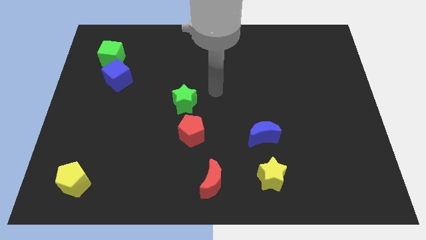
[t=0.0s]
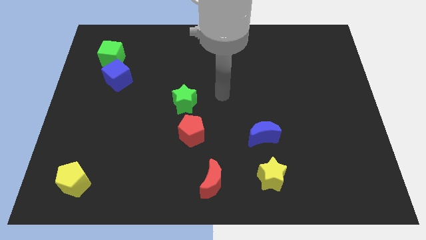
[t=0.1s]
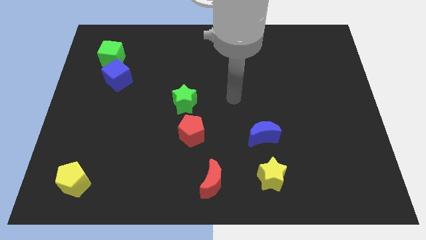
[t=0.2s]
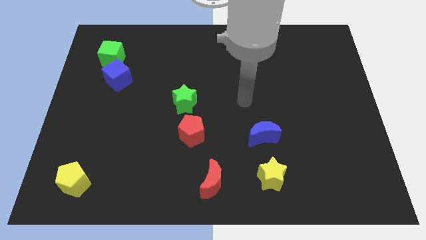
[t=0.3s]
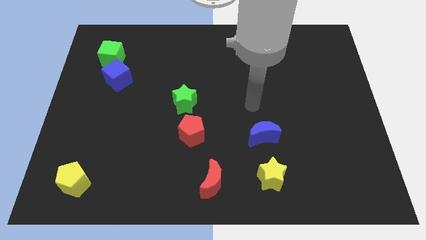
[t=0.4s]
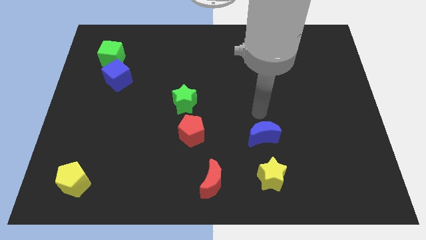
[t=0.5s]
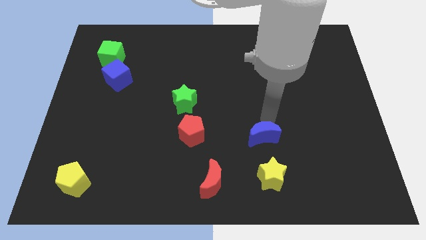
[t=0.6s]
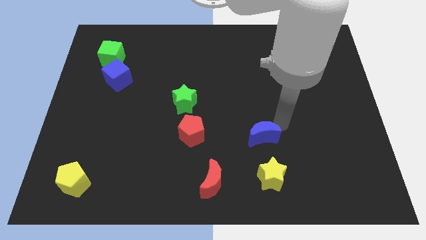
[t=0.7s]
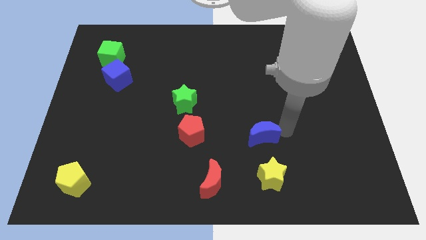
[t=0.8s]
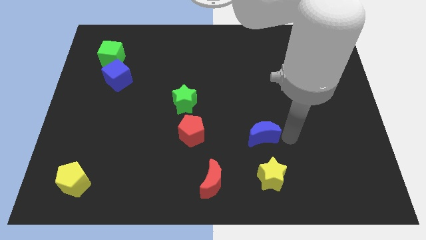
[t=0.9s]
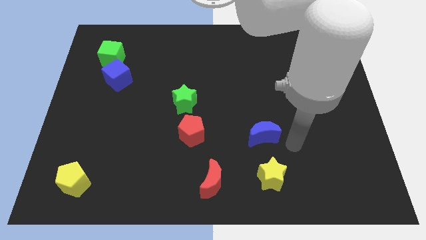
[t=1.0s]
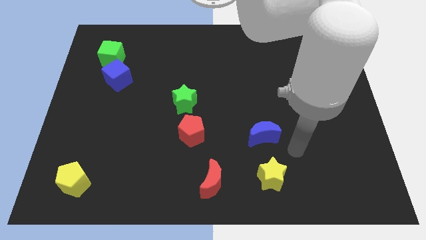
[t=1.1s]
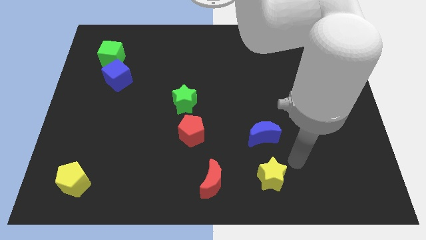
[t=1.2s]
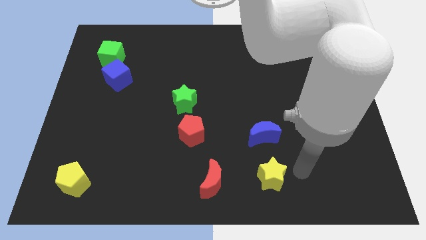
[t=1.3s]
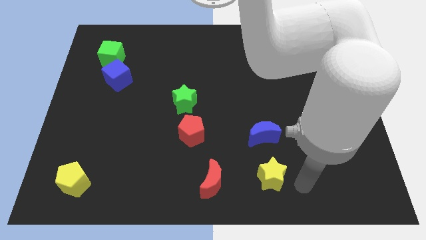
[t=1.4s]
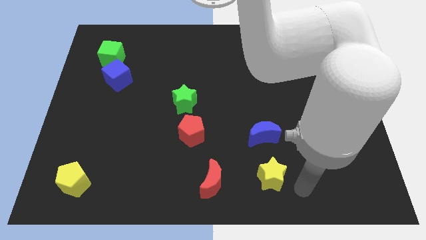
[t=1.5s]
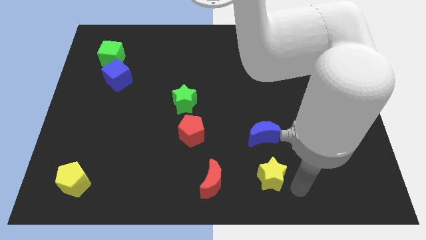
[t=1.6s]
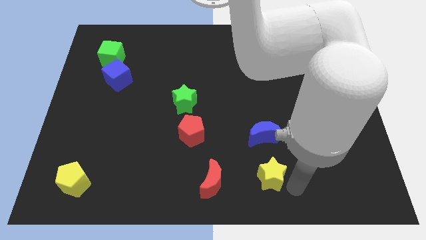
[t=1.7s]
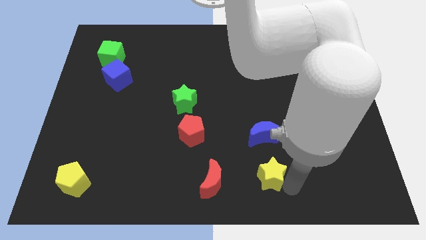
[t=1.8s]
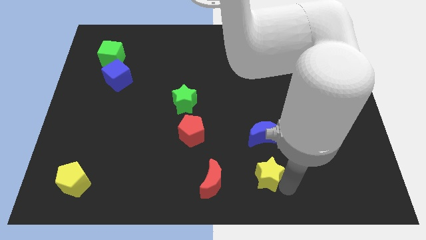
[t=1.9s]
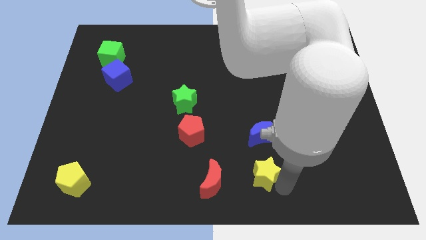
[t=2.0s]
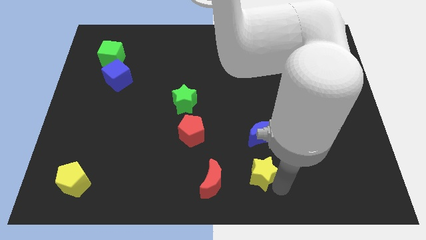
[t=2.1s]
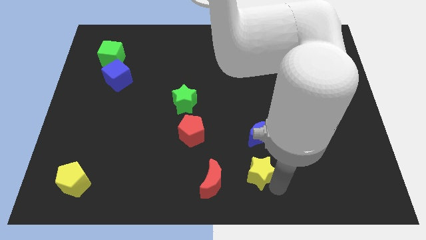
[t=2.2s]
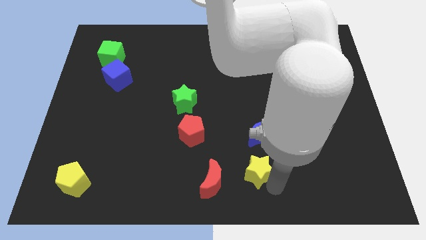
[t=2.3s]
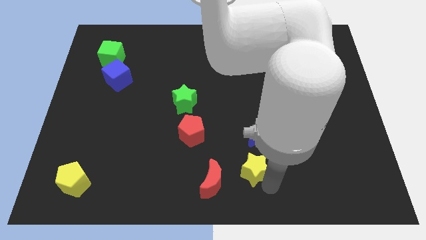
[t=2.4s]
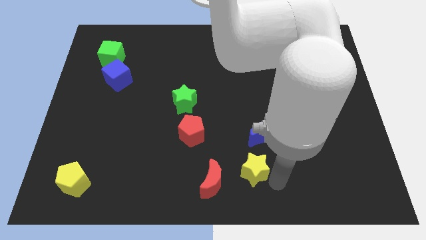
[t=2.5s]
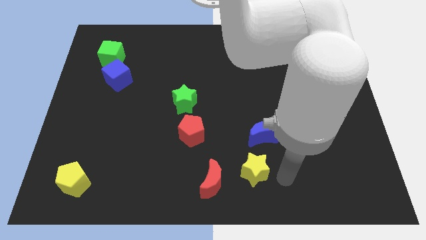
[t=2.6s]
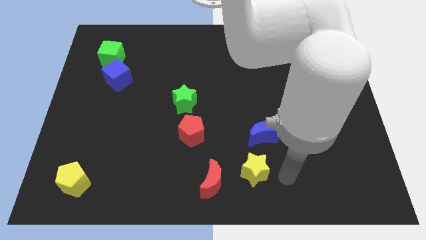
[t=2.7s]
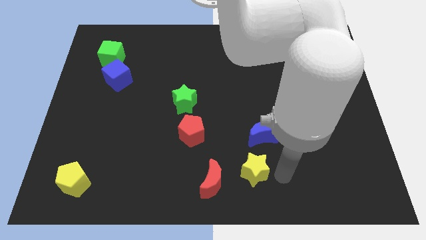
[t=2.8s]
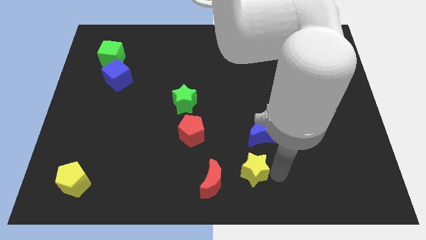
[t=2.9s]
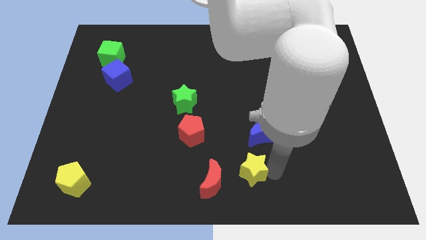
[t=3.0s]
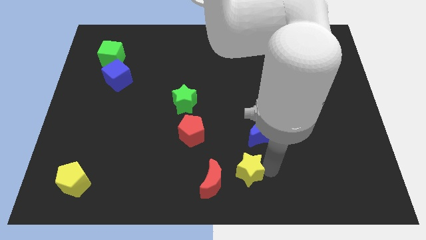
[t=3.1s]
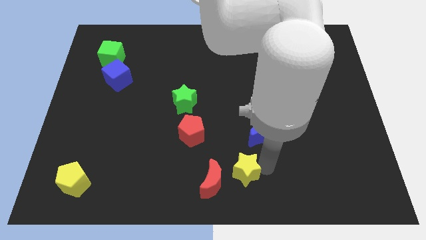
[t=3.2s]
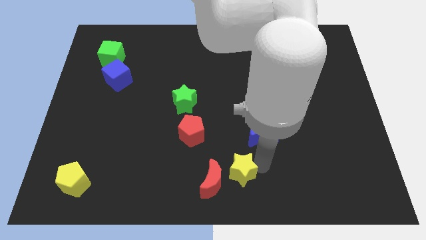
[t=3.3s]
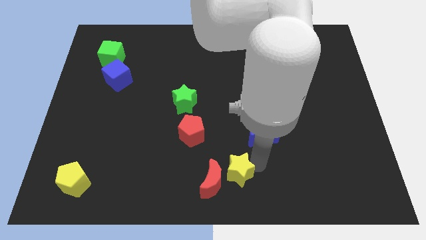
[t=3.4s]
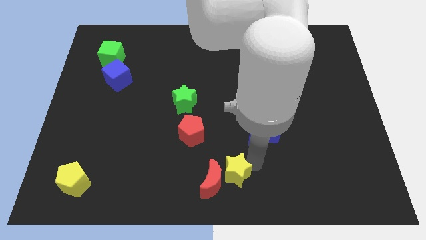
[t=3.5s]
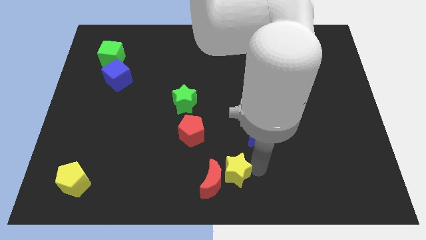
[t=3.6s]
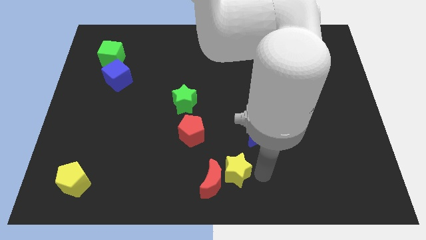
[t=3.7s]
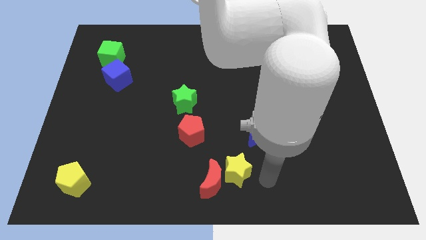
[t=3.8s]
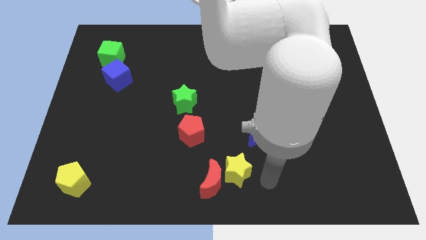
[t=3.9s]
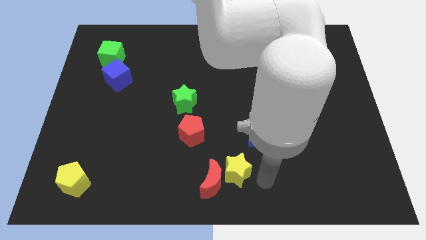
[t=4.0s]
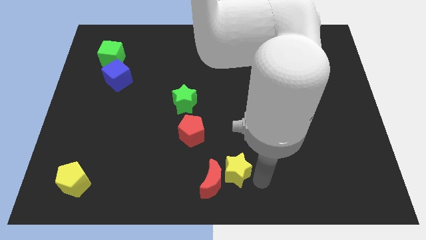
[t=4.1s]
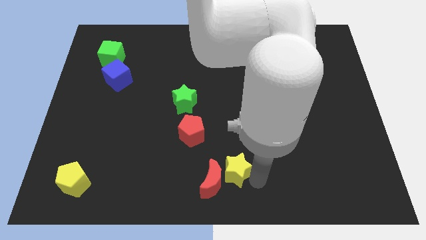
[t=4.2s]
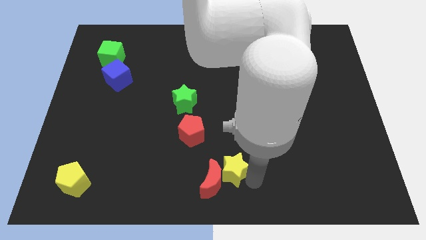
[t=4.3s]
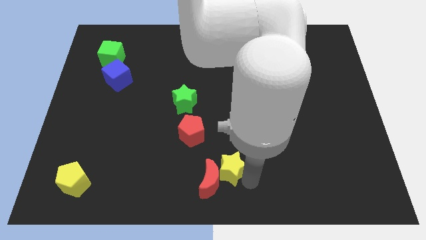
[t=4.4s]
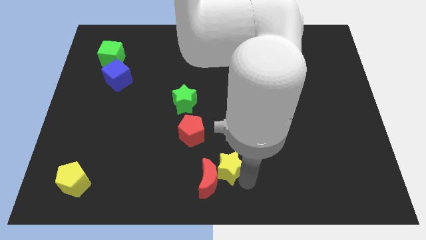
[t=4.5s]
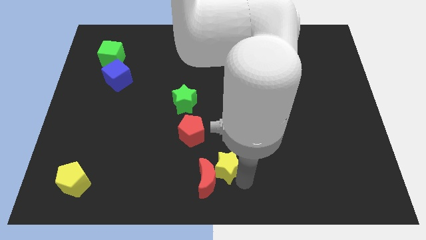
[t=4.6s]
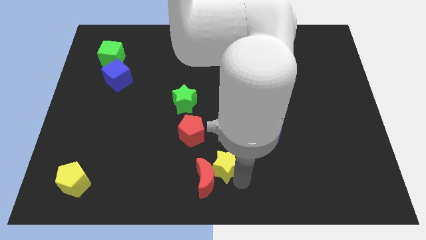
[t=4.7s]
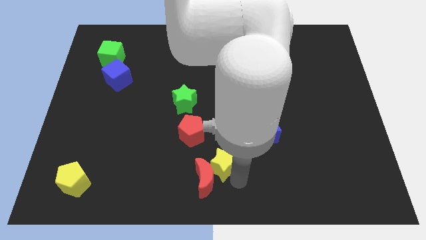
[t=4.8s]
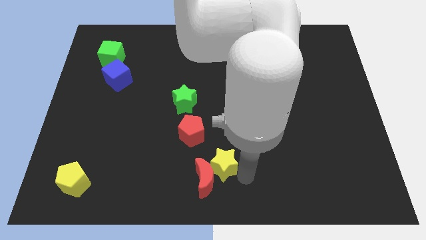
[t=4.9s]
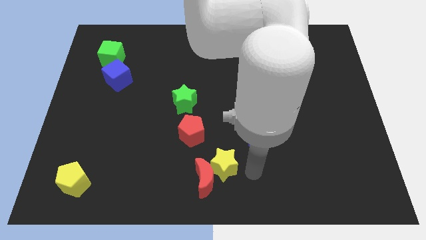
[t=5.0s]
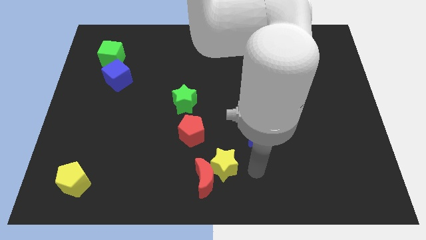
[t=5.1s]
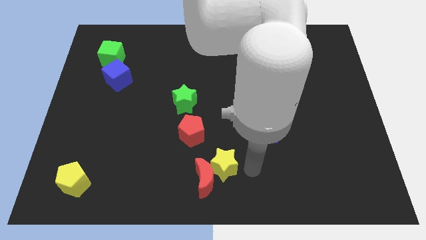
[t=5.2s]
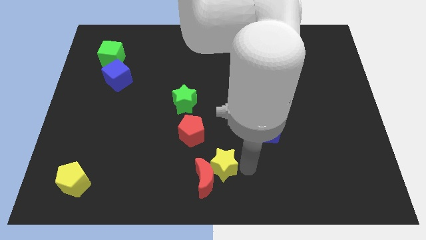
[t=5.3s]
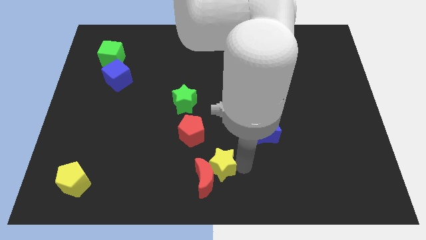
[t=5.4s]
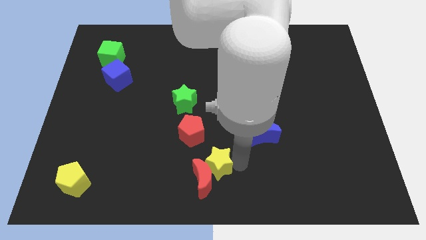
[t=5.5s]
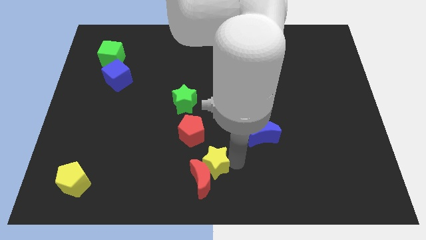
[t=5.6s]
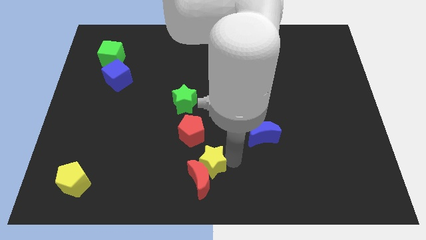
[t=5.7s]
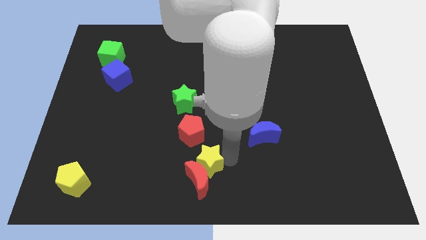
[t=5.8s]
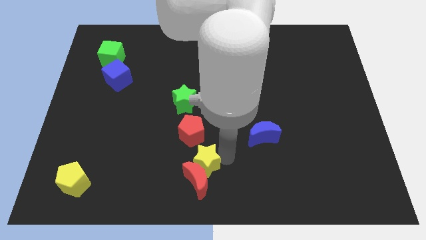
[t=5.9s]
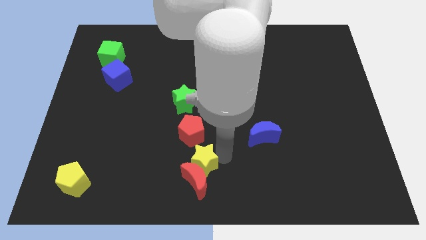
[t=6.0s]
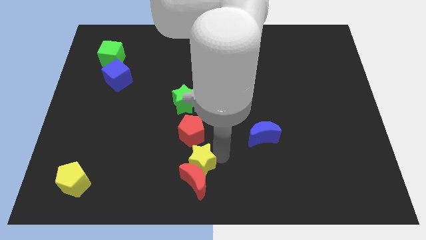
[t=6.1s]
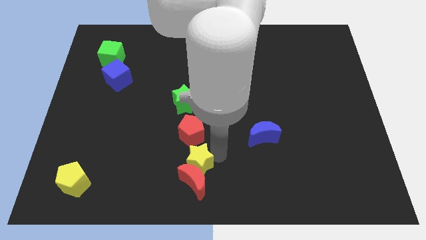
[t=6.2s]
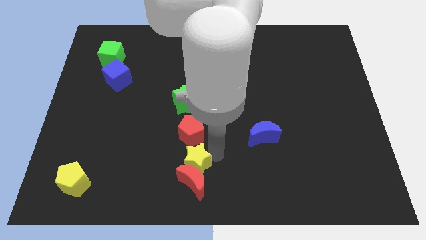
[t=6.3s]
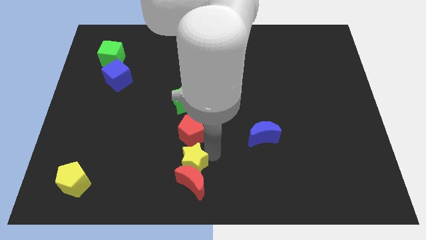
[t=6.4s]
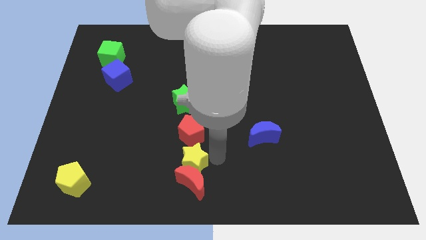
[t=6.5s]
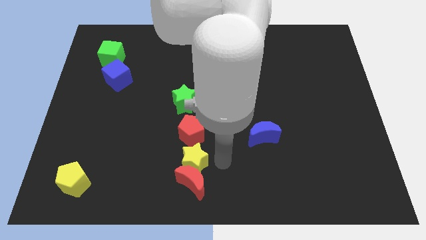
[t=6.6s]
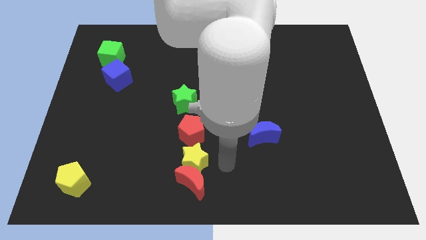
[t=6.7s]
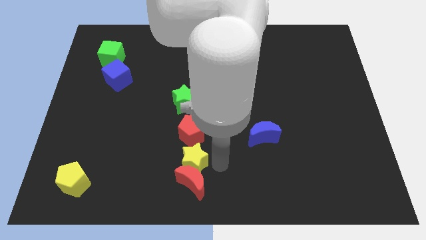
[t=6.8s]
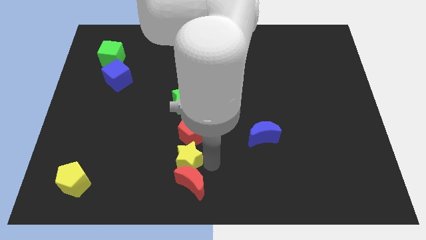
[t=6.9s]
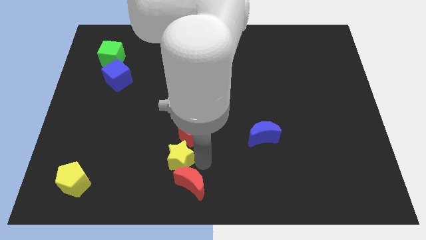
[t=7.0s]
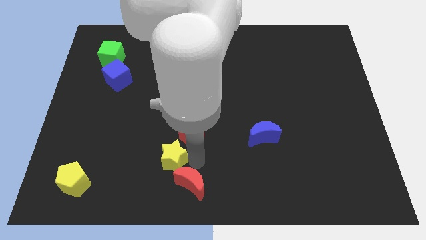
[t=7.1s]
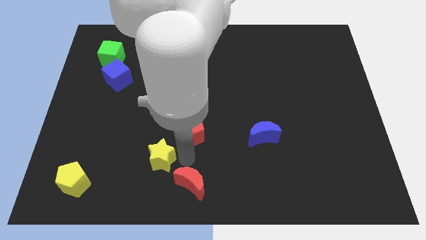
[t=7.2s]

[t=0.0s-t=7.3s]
slide the yellow star left

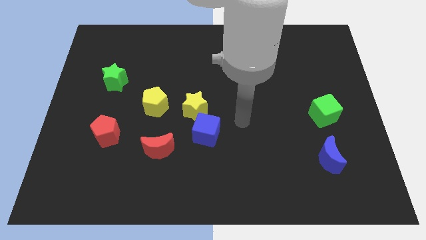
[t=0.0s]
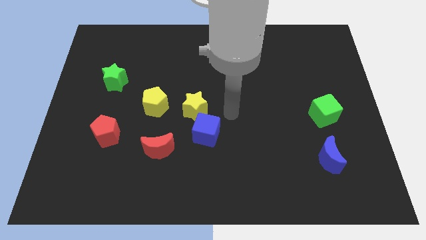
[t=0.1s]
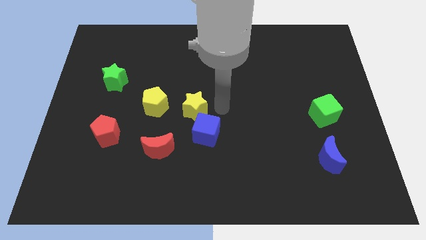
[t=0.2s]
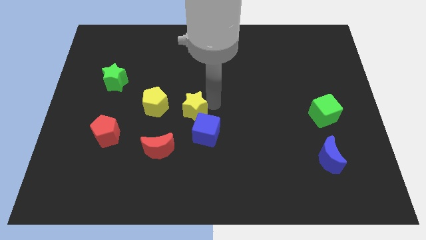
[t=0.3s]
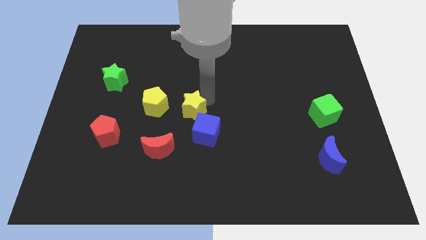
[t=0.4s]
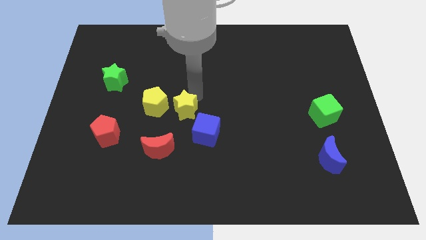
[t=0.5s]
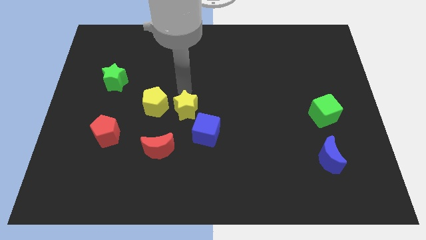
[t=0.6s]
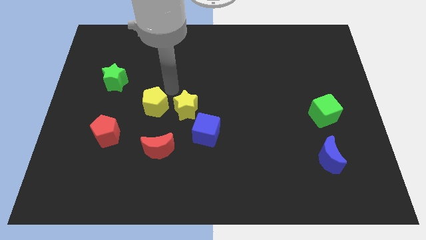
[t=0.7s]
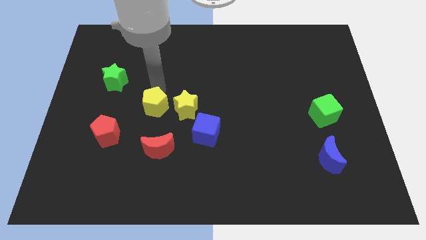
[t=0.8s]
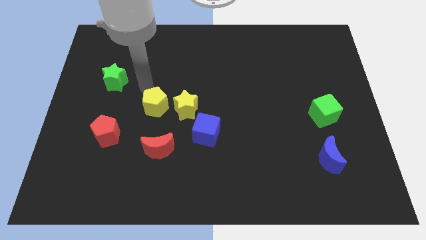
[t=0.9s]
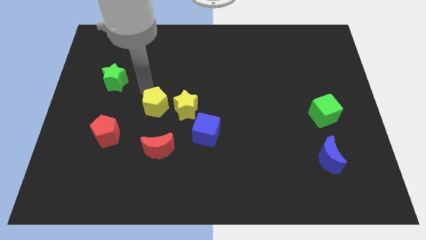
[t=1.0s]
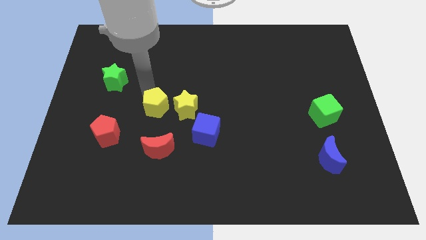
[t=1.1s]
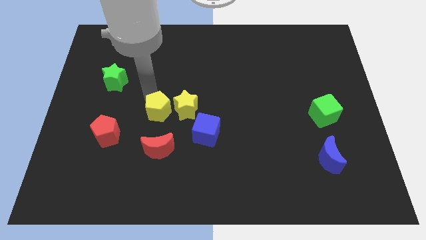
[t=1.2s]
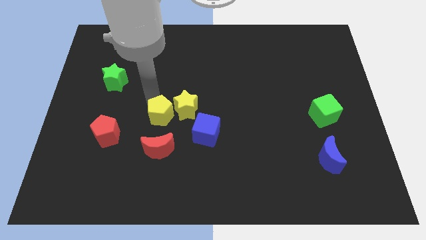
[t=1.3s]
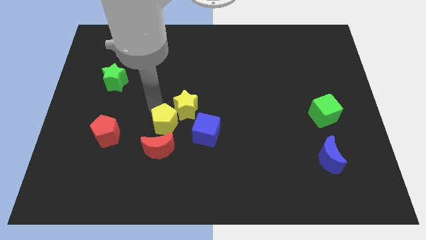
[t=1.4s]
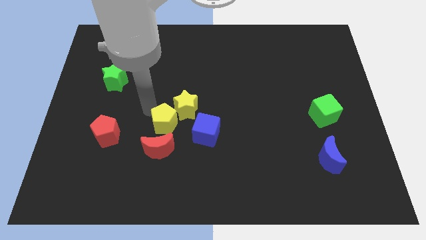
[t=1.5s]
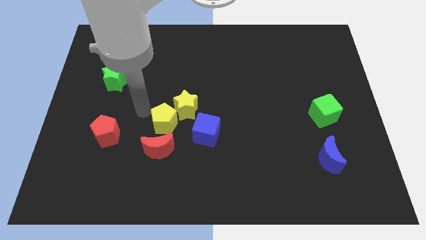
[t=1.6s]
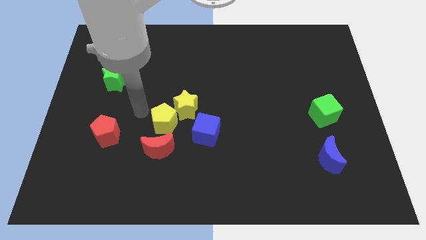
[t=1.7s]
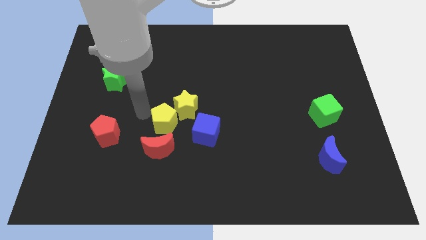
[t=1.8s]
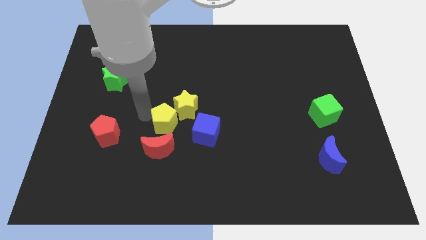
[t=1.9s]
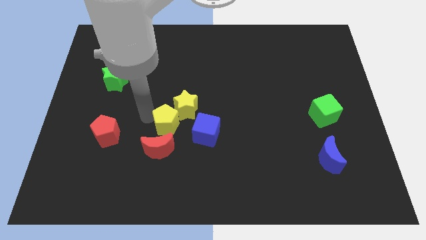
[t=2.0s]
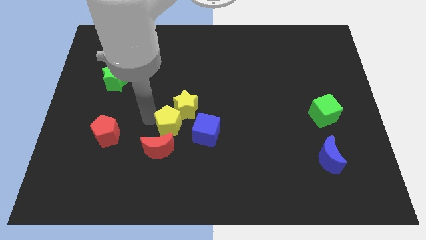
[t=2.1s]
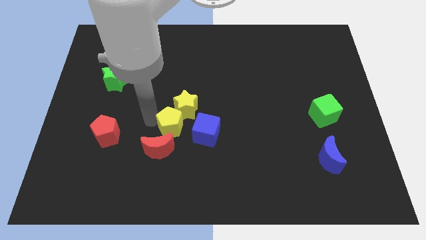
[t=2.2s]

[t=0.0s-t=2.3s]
move the yellow pentagon diagonally down and to the right slightly
